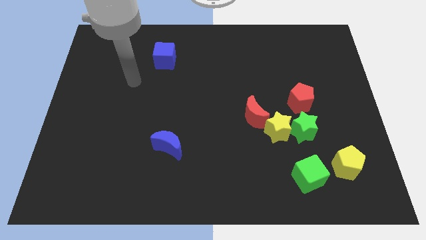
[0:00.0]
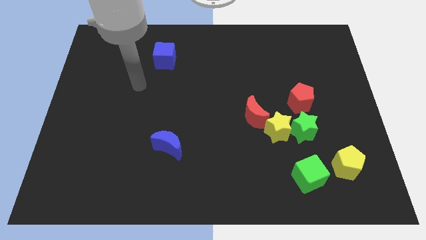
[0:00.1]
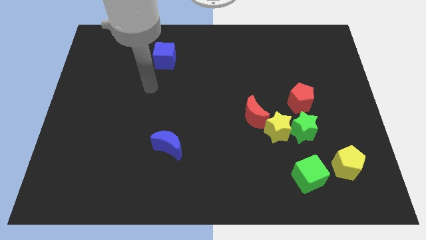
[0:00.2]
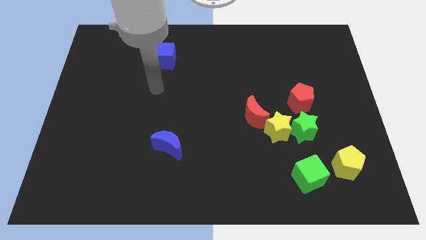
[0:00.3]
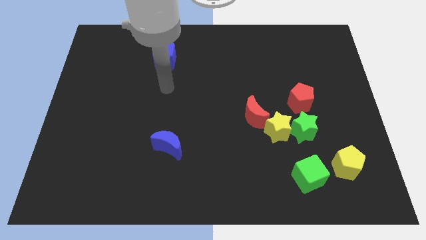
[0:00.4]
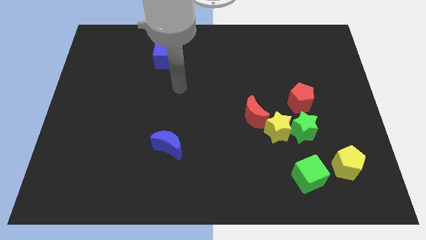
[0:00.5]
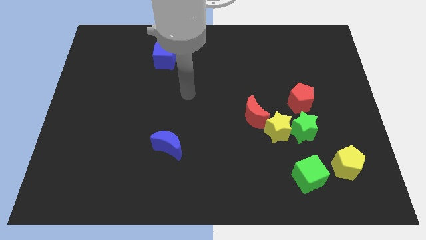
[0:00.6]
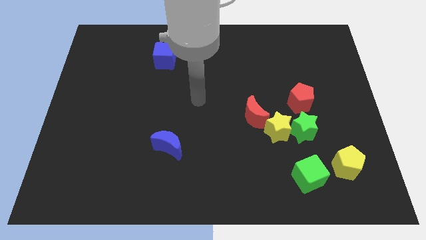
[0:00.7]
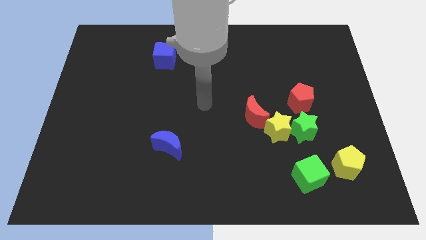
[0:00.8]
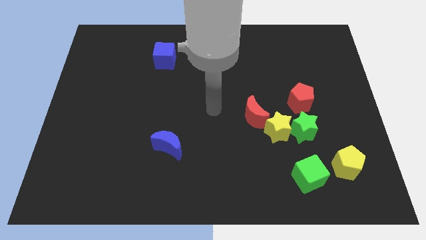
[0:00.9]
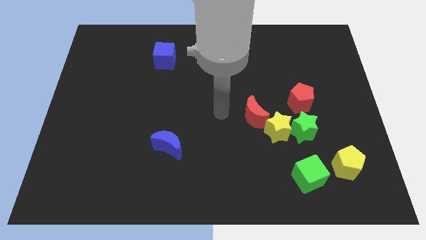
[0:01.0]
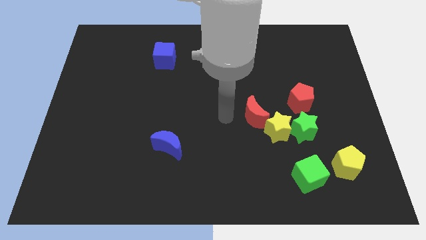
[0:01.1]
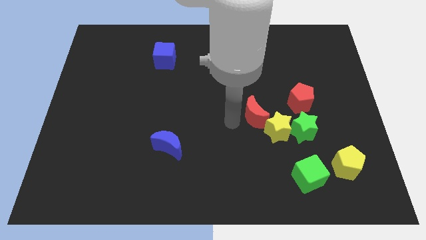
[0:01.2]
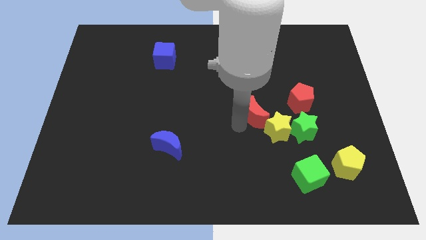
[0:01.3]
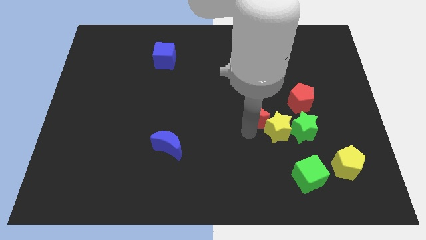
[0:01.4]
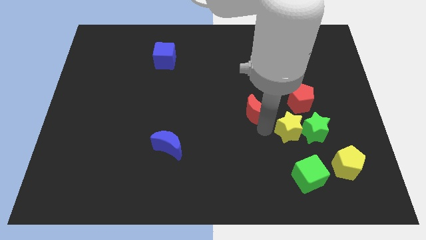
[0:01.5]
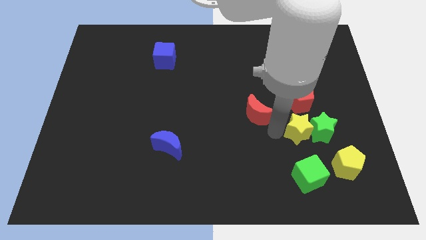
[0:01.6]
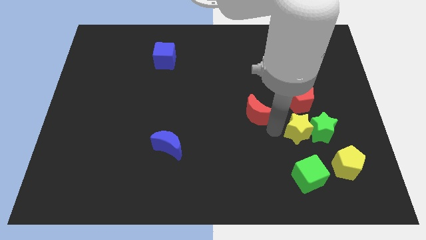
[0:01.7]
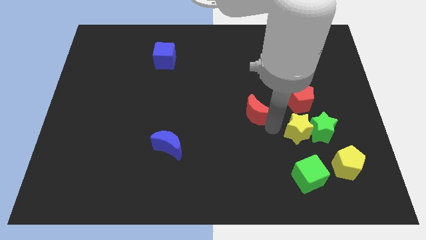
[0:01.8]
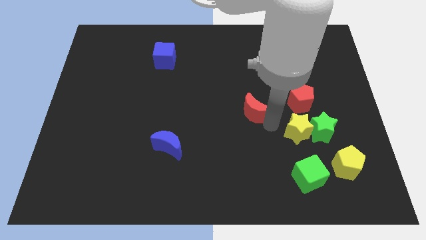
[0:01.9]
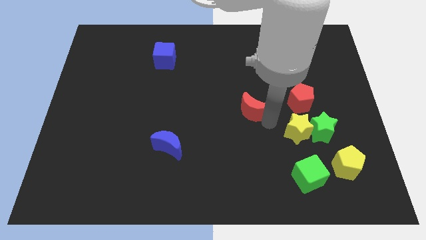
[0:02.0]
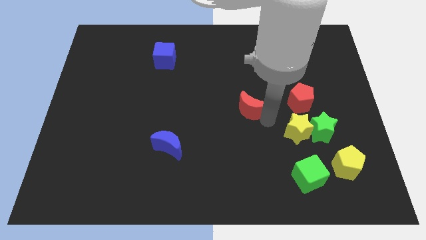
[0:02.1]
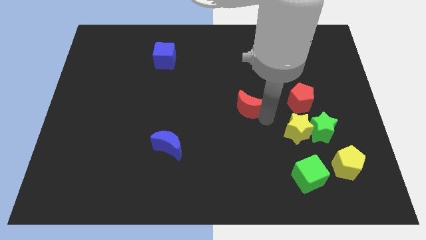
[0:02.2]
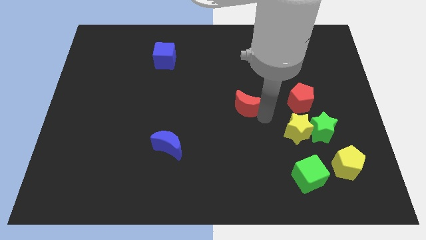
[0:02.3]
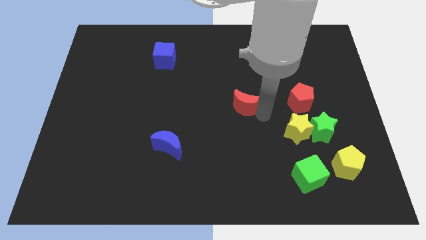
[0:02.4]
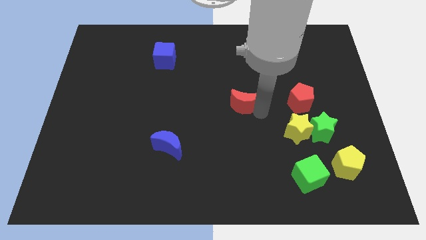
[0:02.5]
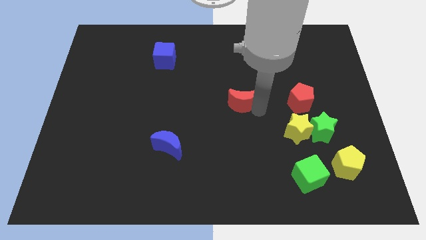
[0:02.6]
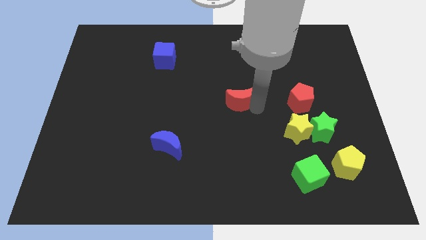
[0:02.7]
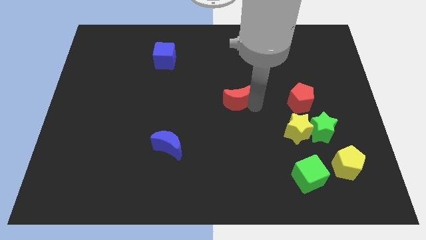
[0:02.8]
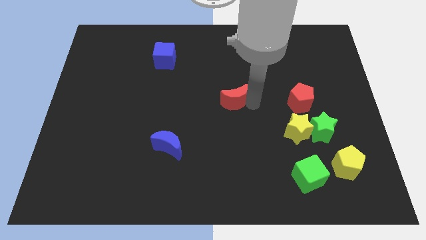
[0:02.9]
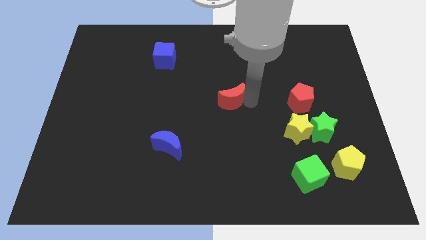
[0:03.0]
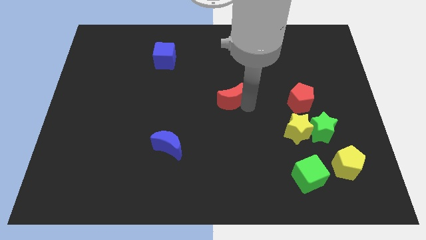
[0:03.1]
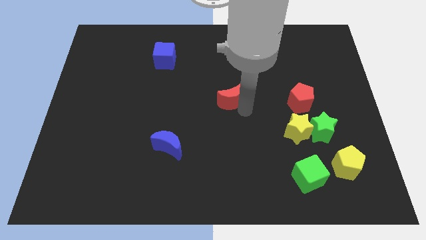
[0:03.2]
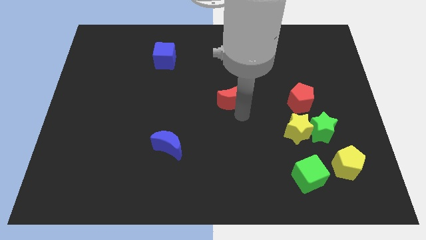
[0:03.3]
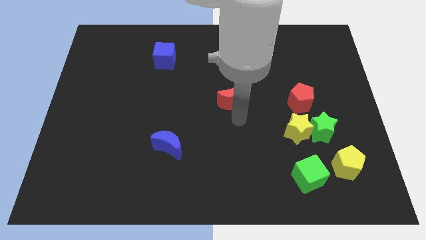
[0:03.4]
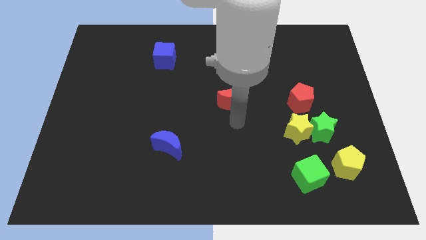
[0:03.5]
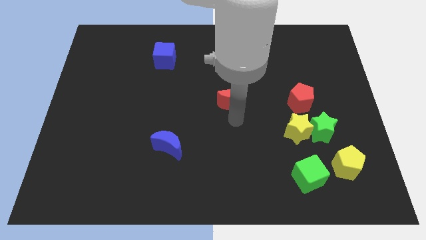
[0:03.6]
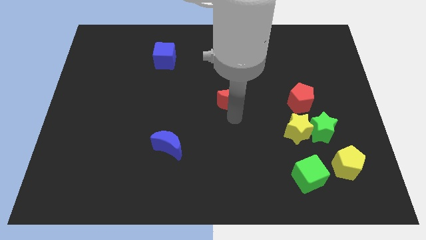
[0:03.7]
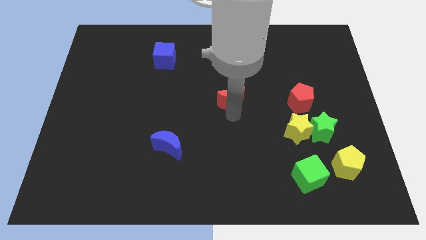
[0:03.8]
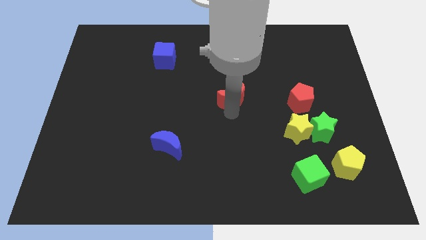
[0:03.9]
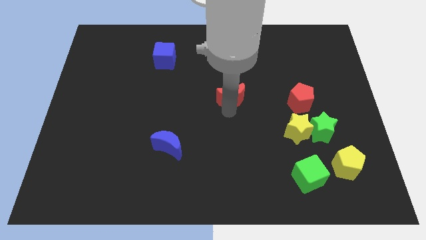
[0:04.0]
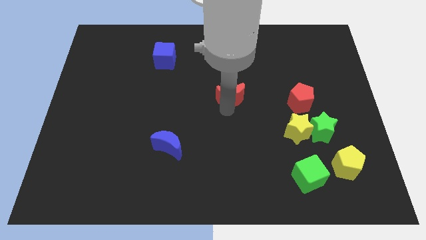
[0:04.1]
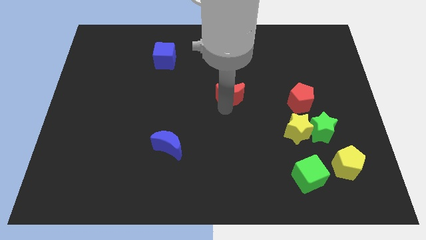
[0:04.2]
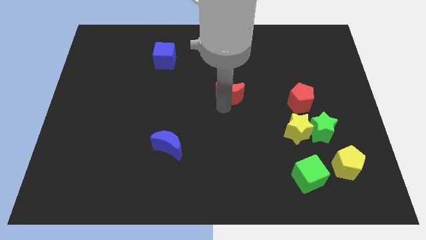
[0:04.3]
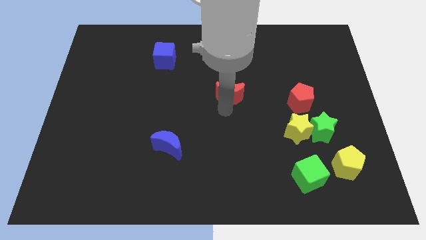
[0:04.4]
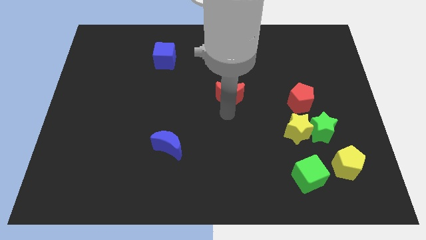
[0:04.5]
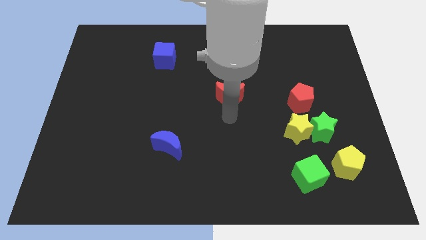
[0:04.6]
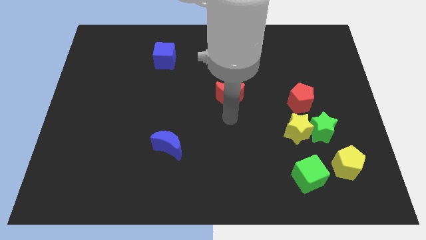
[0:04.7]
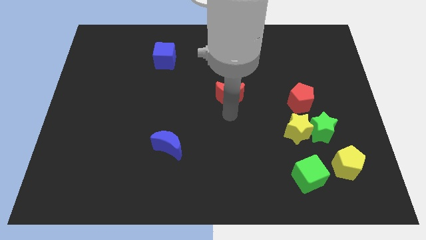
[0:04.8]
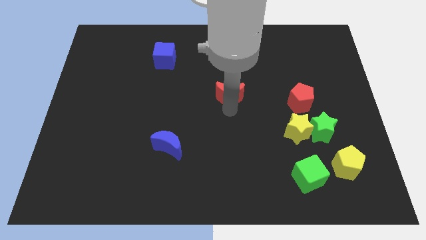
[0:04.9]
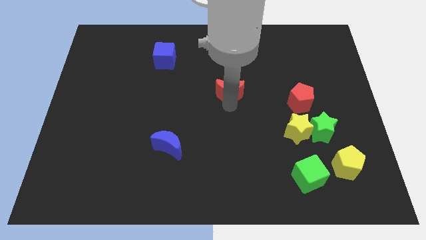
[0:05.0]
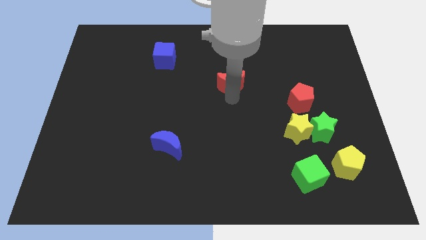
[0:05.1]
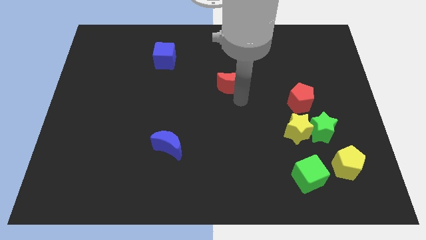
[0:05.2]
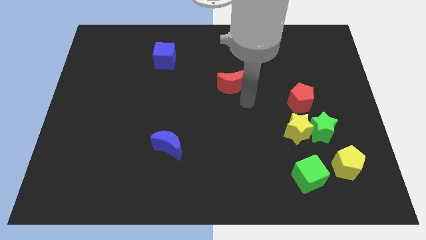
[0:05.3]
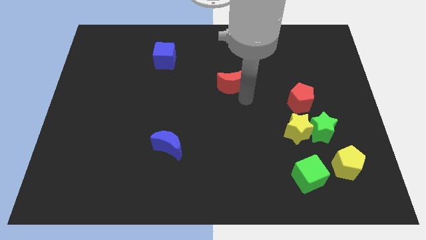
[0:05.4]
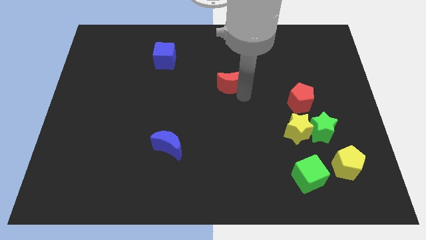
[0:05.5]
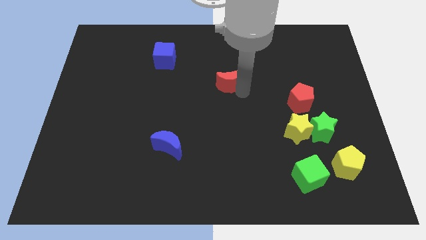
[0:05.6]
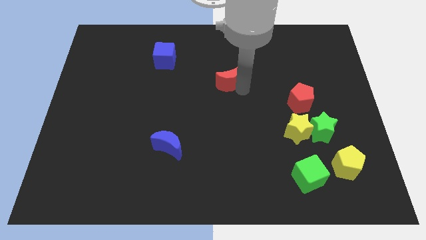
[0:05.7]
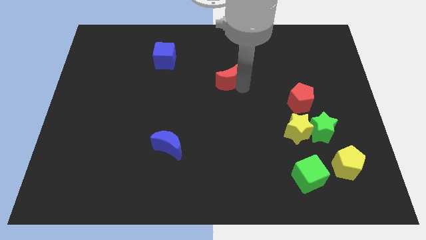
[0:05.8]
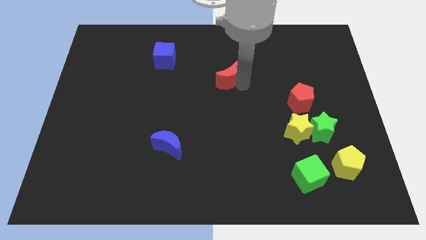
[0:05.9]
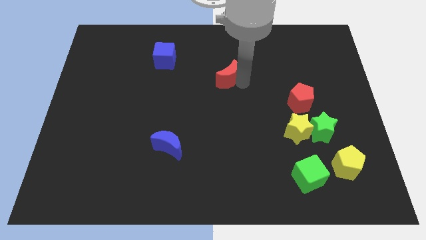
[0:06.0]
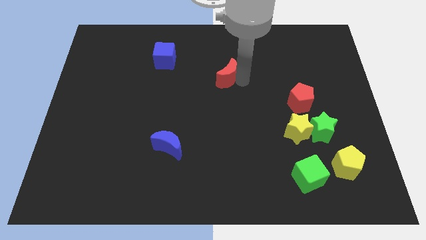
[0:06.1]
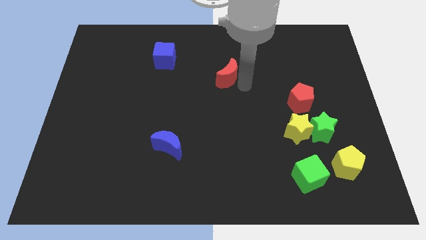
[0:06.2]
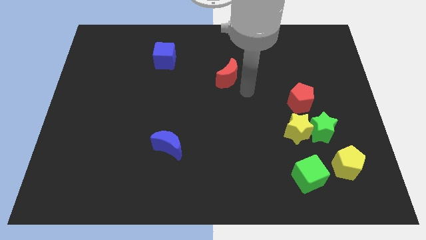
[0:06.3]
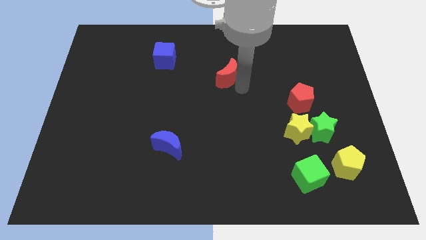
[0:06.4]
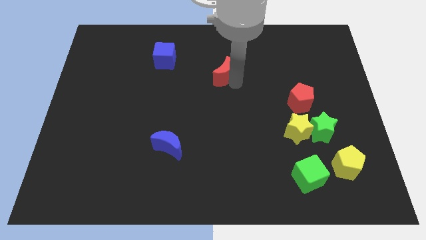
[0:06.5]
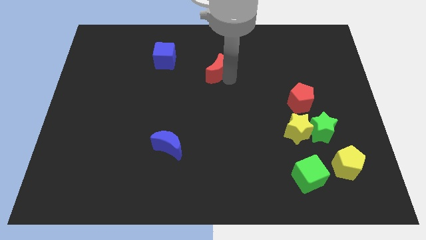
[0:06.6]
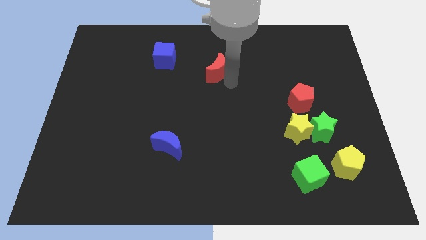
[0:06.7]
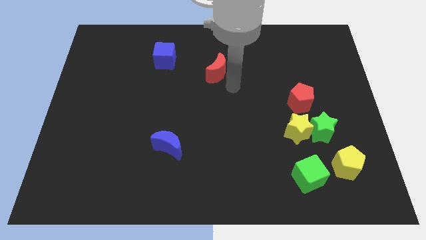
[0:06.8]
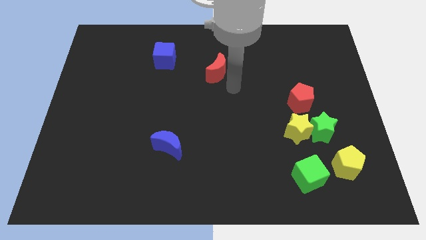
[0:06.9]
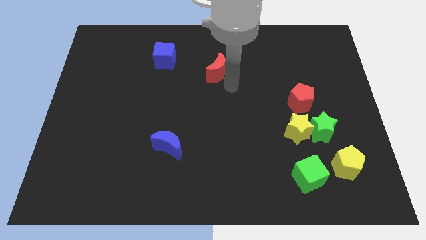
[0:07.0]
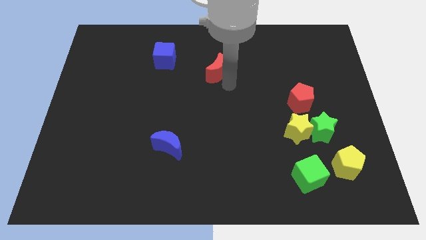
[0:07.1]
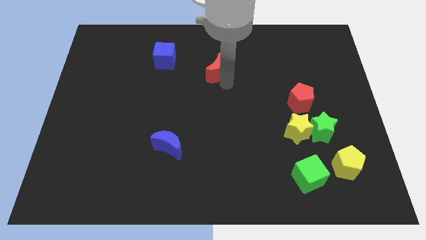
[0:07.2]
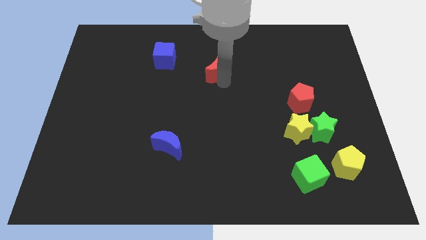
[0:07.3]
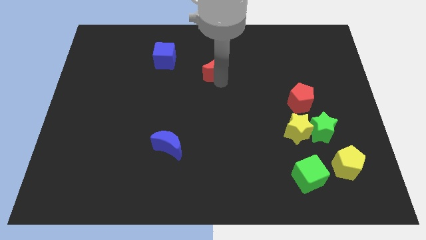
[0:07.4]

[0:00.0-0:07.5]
push the red moon to the right side of the blue cube
